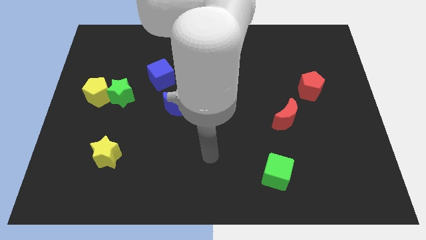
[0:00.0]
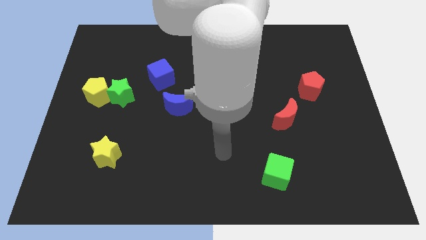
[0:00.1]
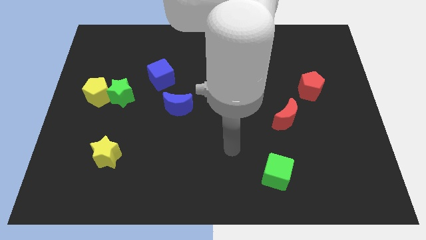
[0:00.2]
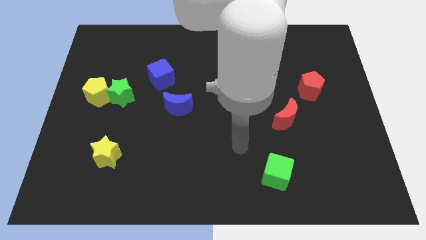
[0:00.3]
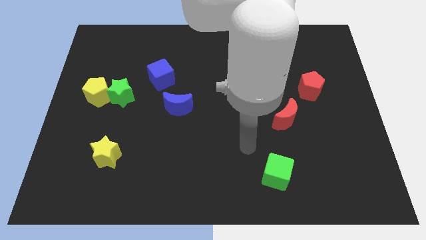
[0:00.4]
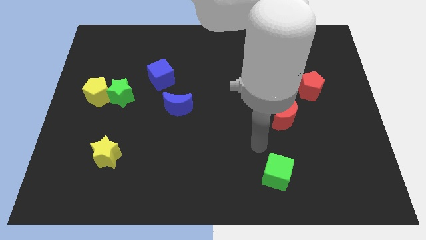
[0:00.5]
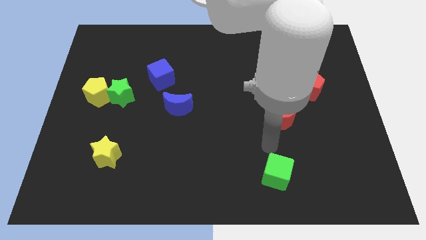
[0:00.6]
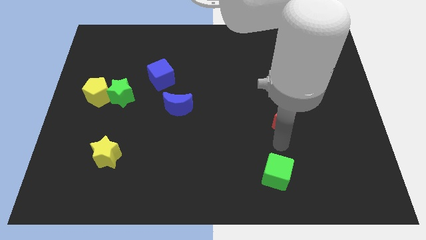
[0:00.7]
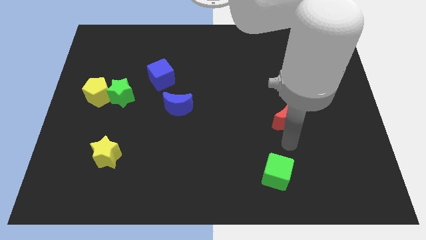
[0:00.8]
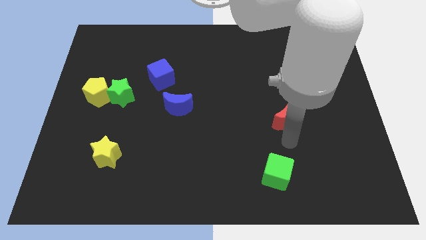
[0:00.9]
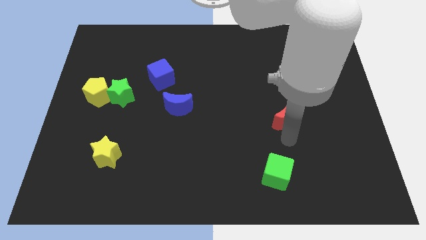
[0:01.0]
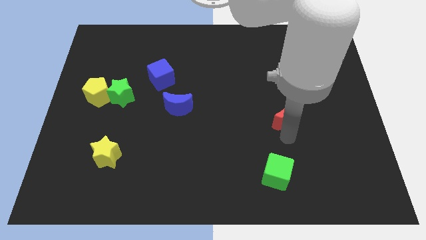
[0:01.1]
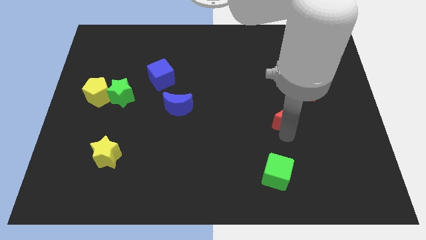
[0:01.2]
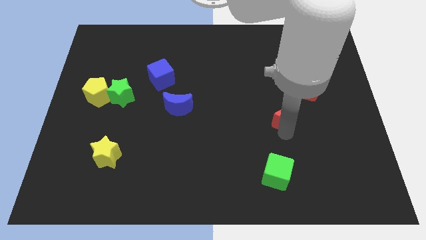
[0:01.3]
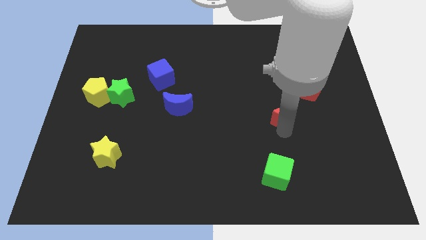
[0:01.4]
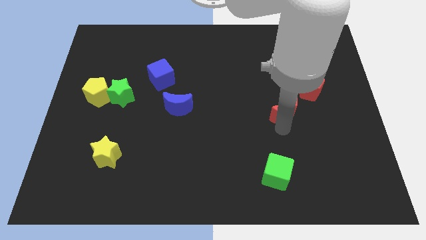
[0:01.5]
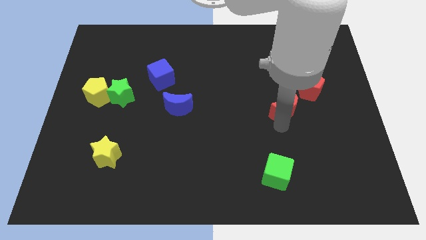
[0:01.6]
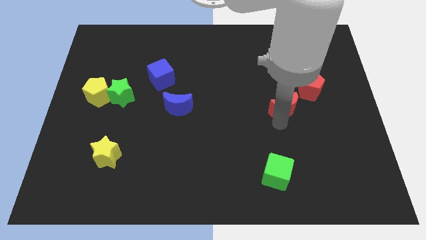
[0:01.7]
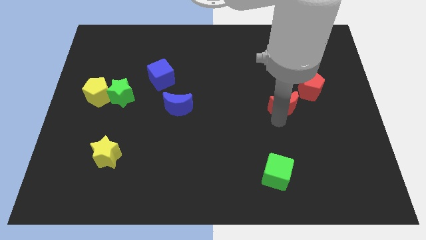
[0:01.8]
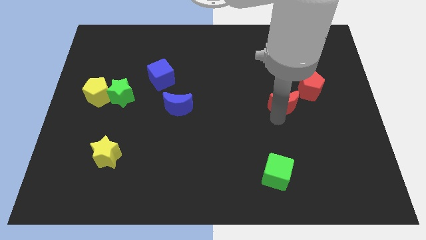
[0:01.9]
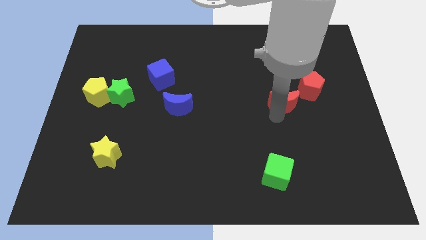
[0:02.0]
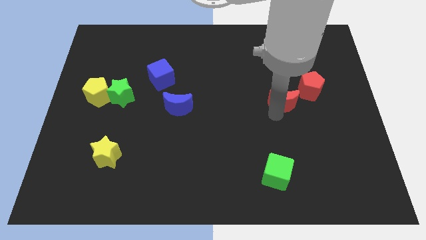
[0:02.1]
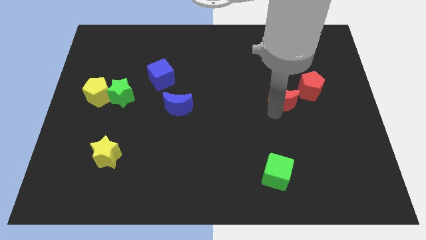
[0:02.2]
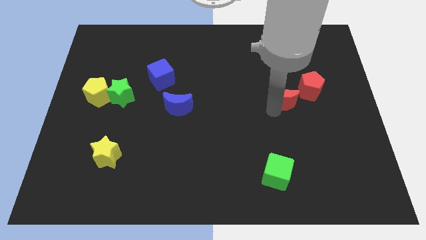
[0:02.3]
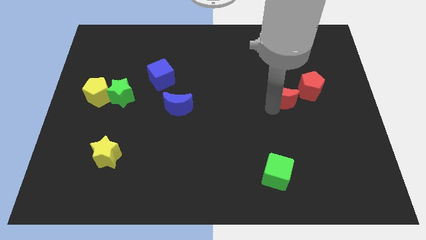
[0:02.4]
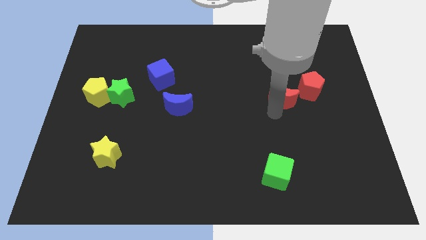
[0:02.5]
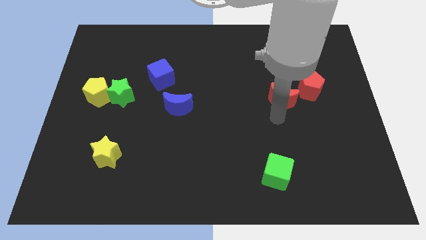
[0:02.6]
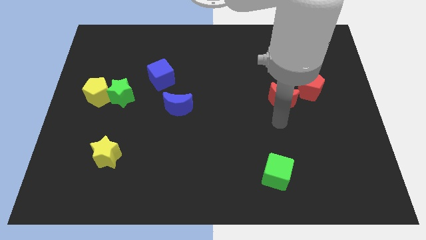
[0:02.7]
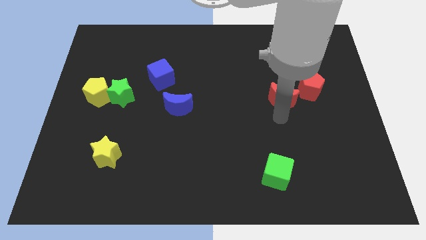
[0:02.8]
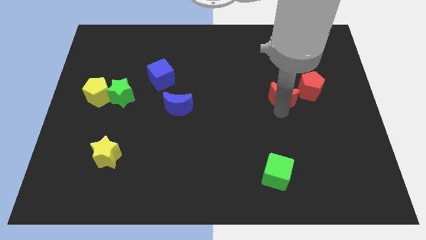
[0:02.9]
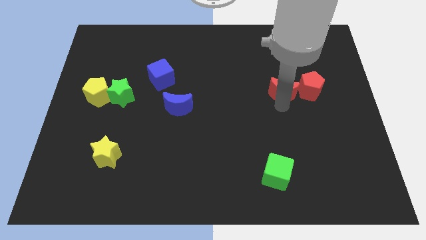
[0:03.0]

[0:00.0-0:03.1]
push the red moon up somewhat

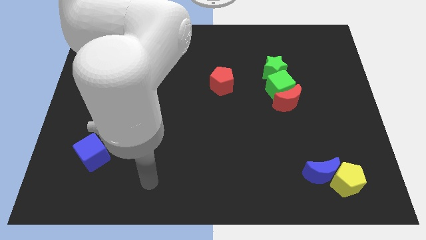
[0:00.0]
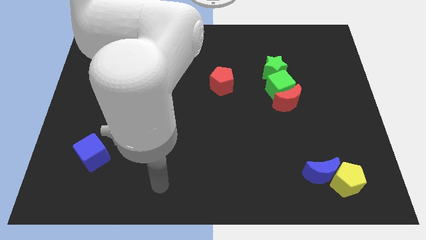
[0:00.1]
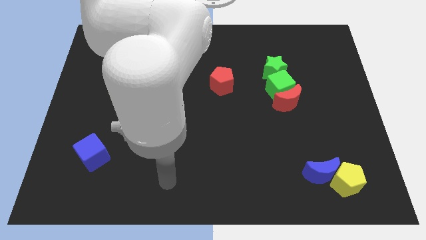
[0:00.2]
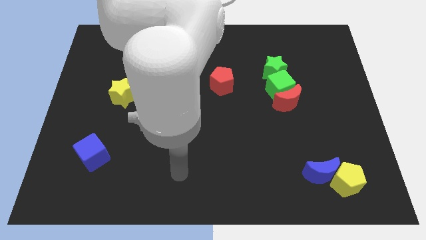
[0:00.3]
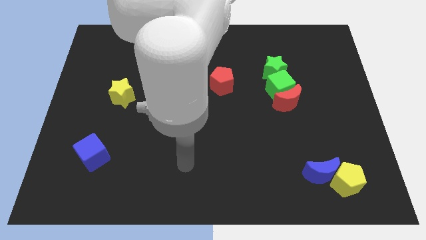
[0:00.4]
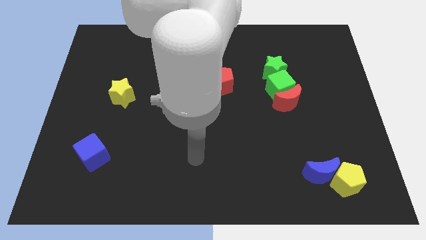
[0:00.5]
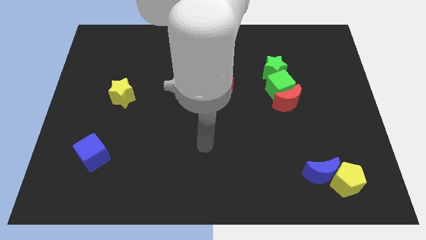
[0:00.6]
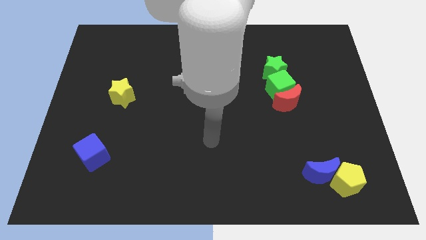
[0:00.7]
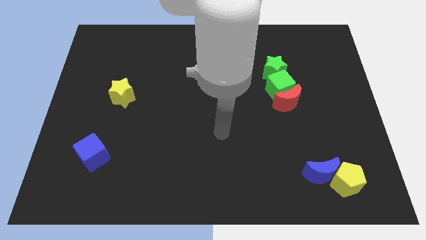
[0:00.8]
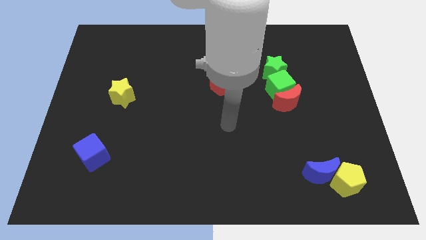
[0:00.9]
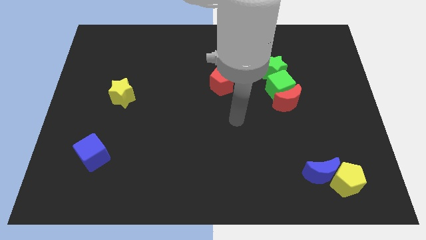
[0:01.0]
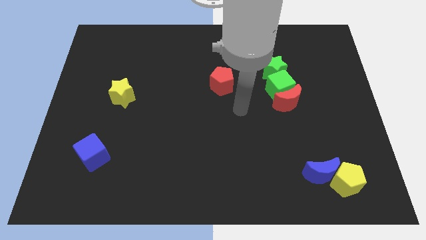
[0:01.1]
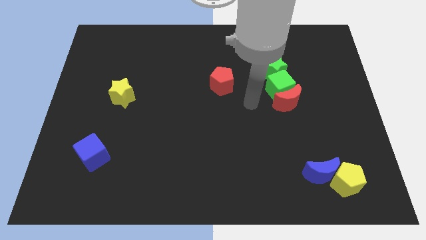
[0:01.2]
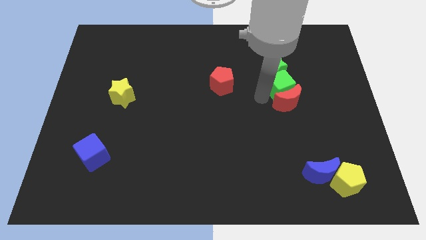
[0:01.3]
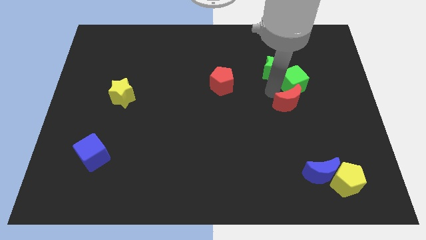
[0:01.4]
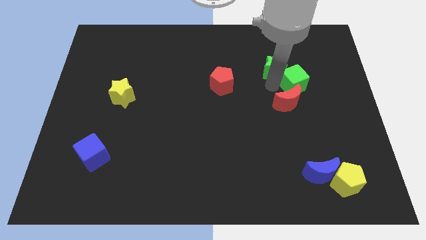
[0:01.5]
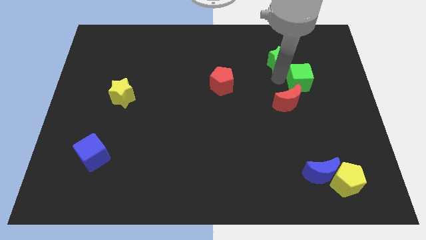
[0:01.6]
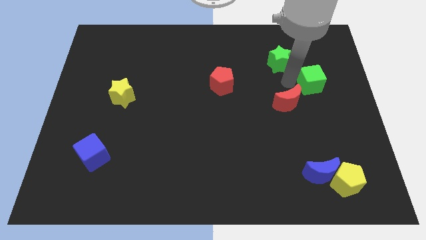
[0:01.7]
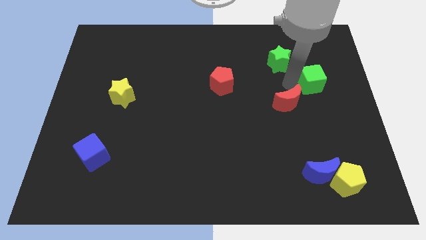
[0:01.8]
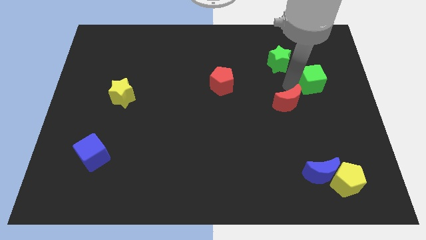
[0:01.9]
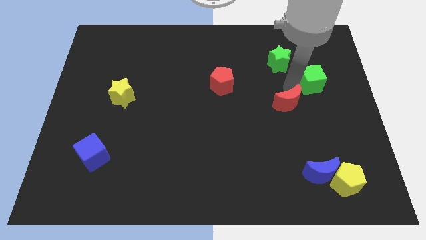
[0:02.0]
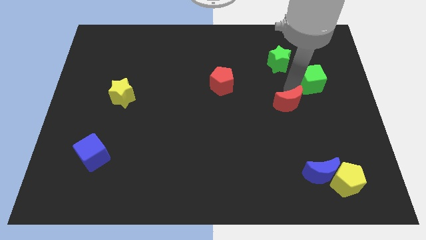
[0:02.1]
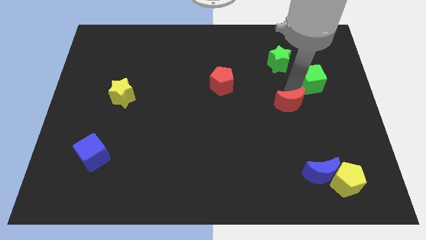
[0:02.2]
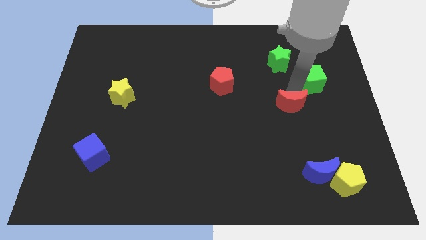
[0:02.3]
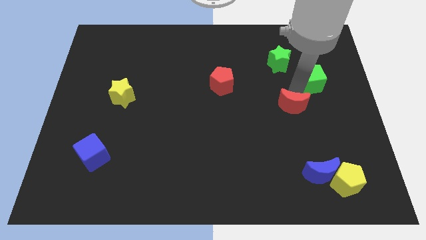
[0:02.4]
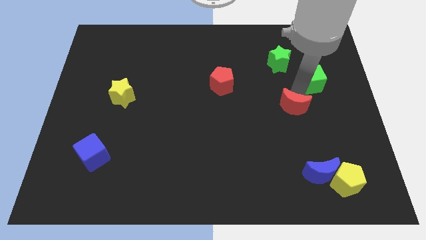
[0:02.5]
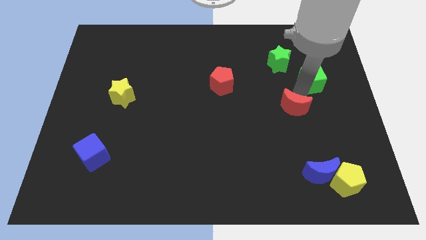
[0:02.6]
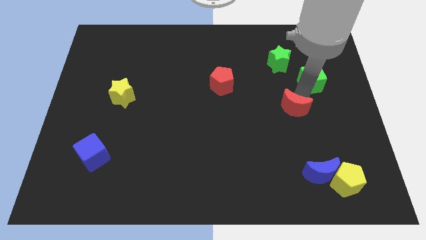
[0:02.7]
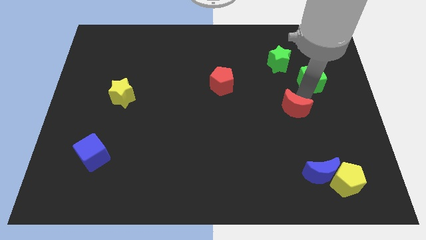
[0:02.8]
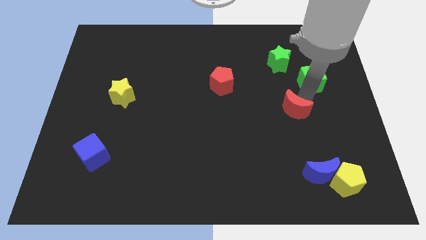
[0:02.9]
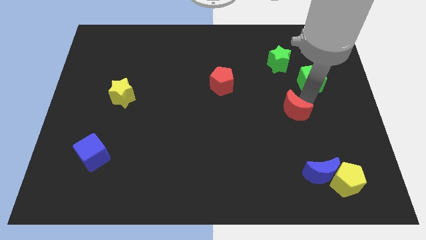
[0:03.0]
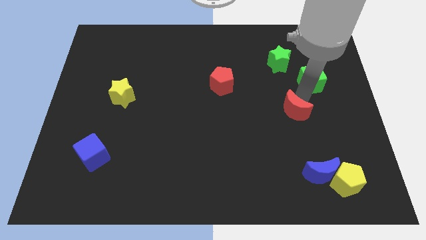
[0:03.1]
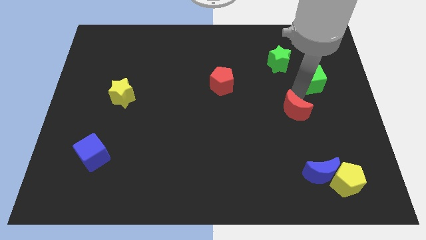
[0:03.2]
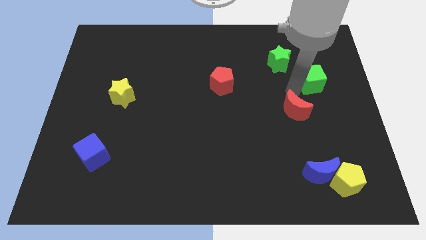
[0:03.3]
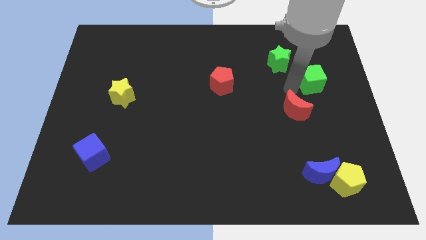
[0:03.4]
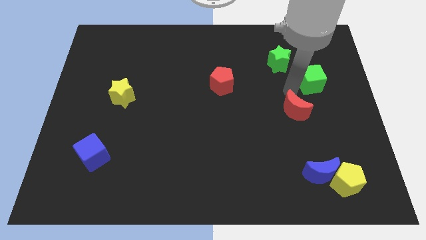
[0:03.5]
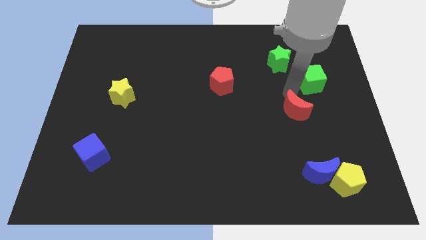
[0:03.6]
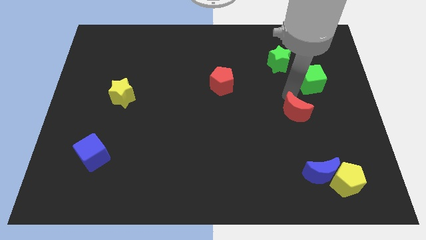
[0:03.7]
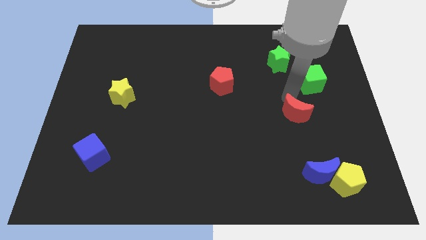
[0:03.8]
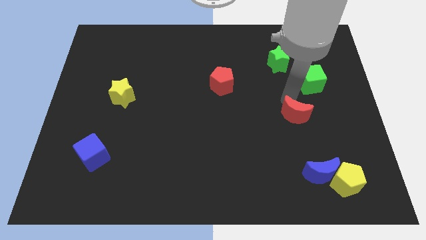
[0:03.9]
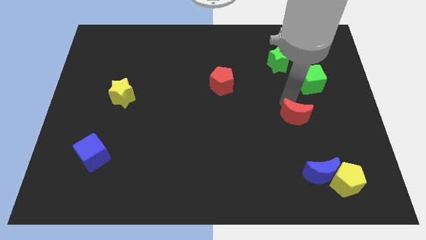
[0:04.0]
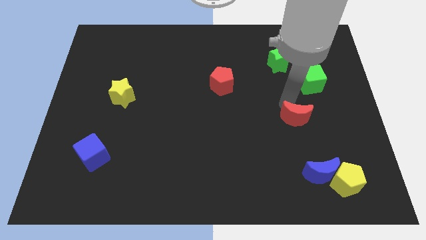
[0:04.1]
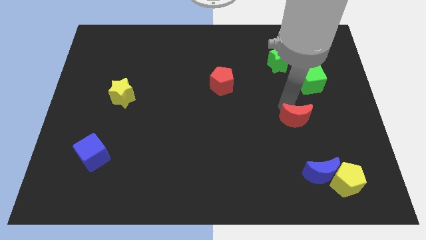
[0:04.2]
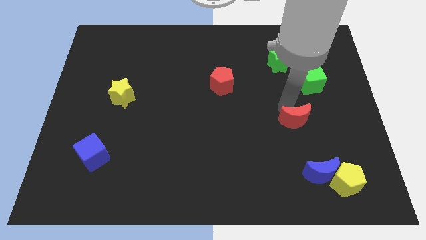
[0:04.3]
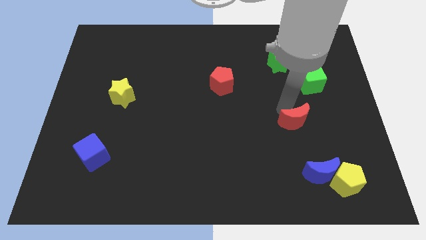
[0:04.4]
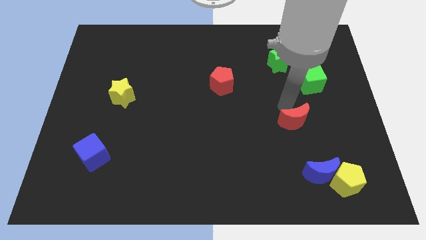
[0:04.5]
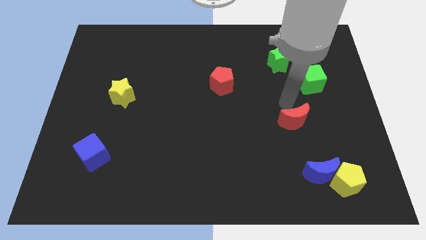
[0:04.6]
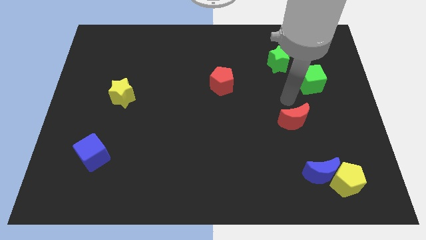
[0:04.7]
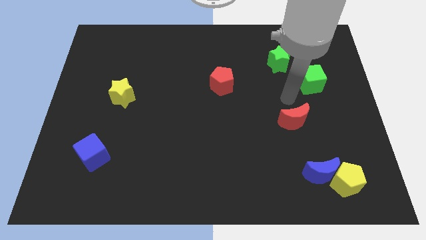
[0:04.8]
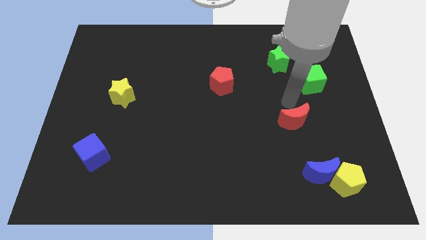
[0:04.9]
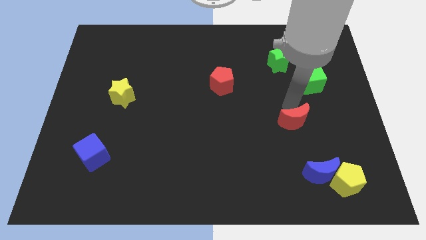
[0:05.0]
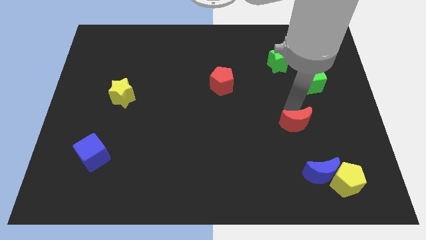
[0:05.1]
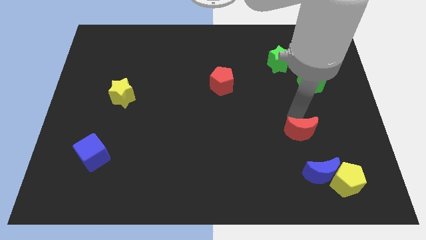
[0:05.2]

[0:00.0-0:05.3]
slide the red moon downwards slightly
